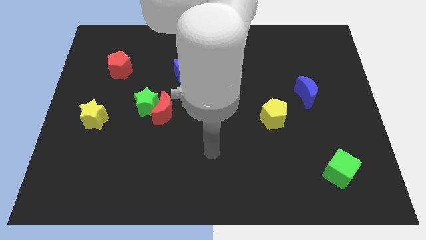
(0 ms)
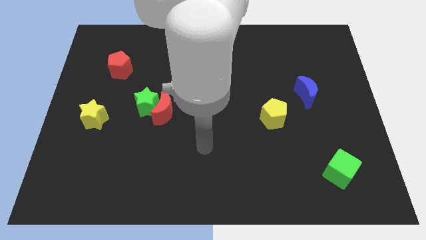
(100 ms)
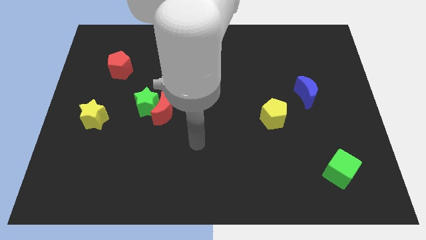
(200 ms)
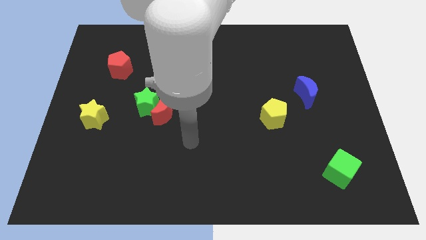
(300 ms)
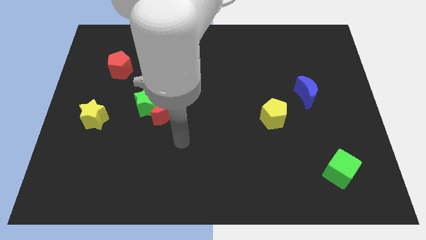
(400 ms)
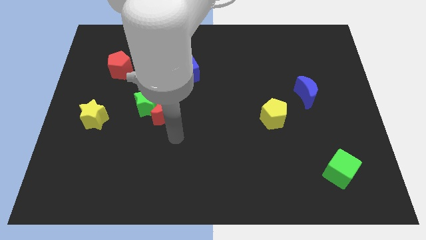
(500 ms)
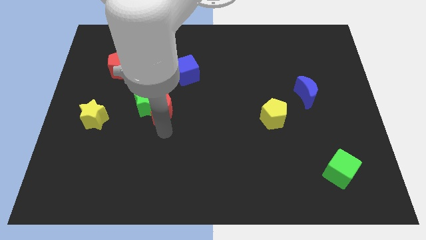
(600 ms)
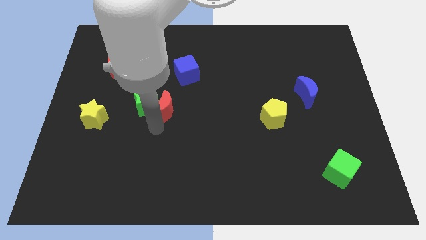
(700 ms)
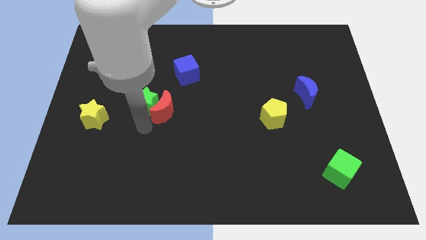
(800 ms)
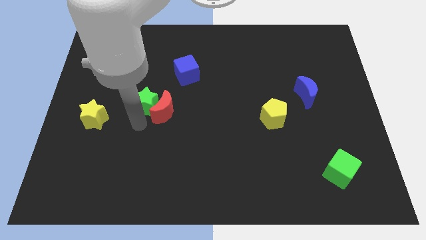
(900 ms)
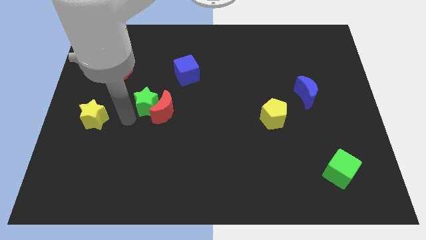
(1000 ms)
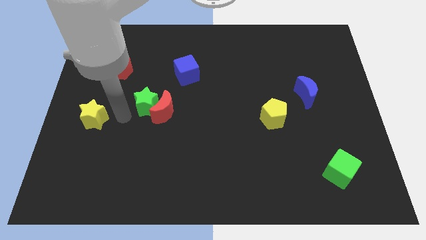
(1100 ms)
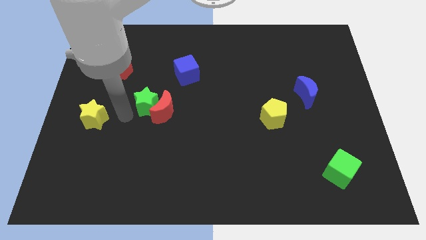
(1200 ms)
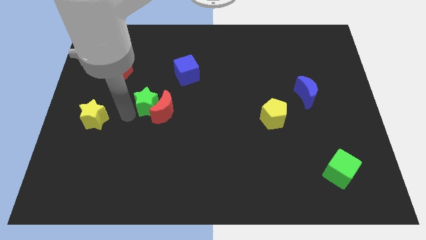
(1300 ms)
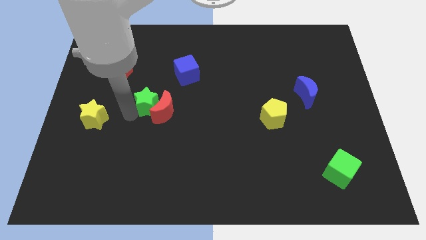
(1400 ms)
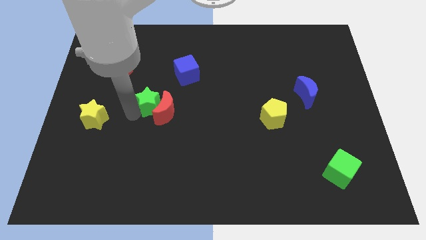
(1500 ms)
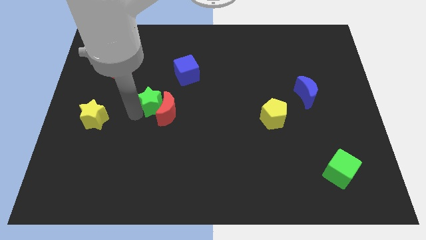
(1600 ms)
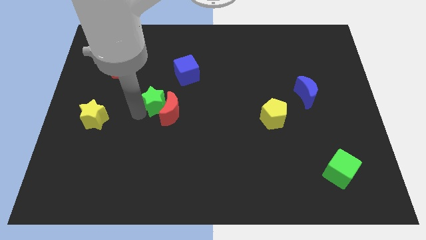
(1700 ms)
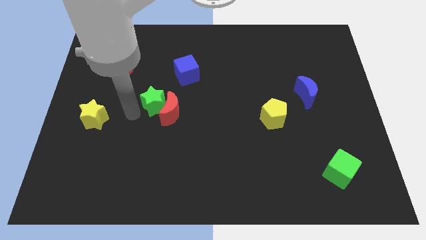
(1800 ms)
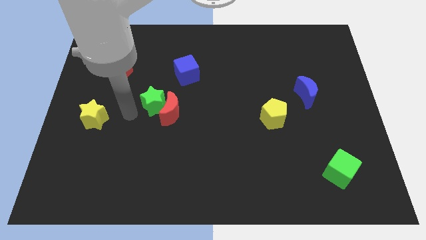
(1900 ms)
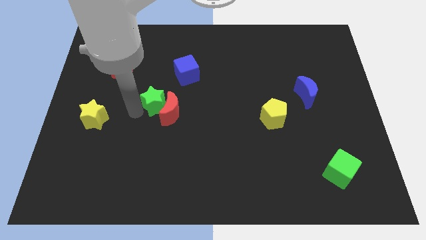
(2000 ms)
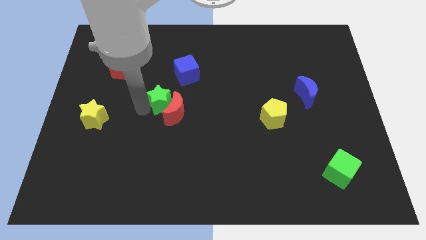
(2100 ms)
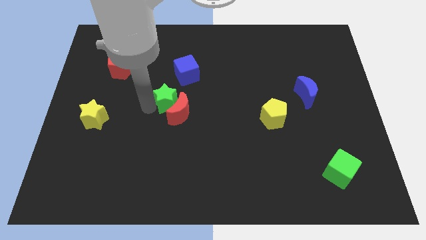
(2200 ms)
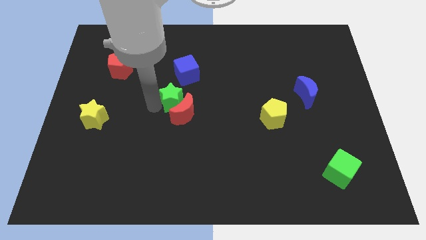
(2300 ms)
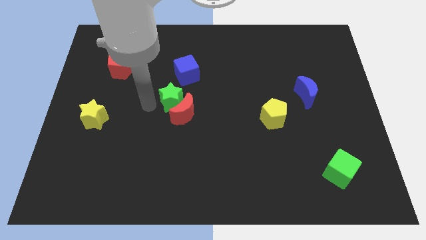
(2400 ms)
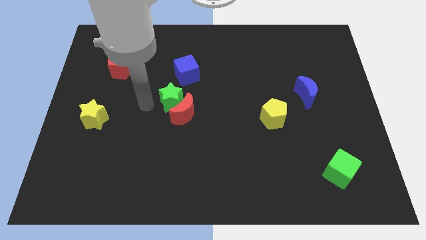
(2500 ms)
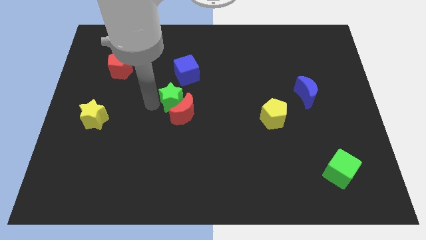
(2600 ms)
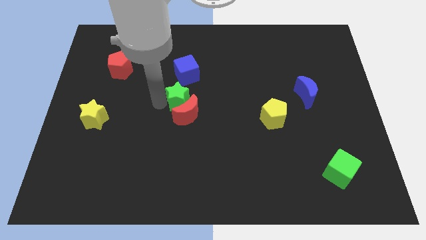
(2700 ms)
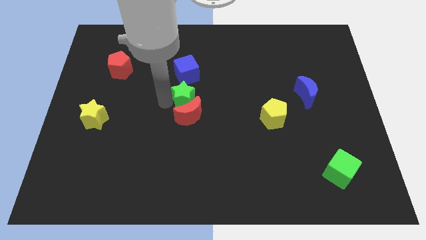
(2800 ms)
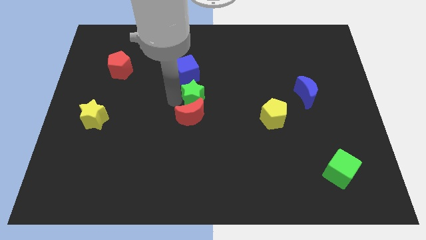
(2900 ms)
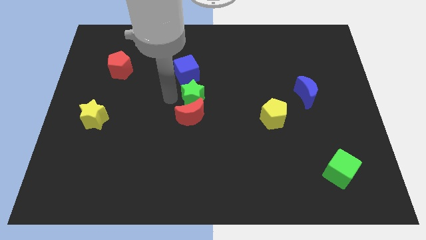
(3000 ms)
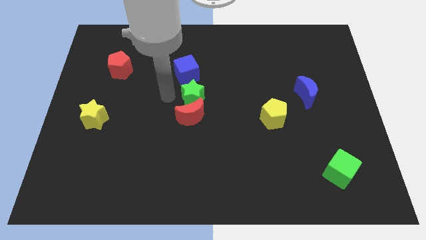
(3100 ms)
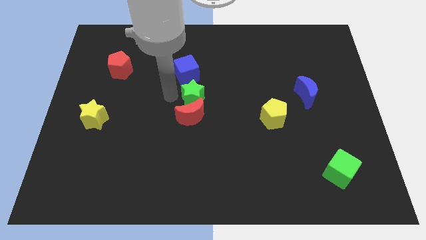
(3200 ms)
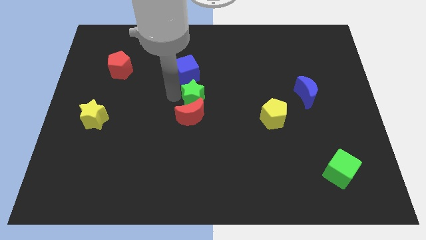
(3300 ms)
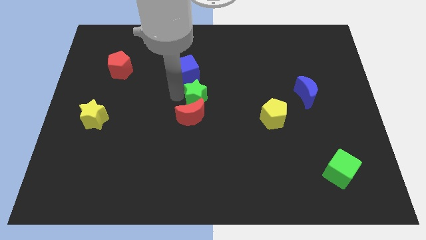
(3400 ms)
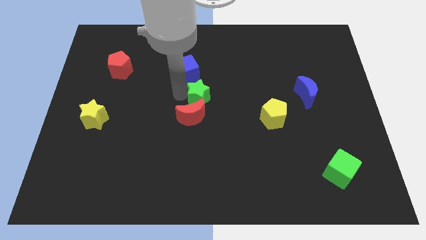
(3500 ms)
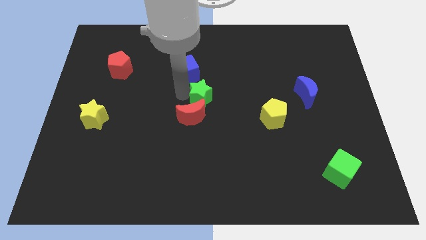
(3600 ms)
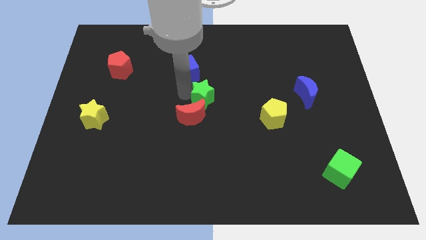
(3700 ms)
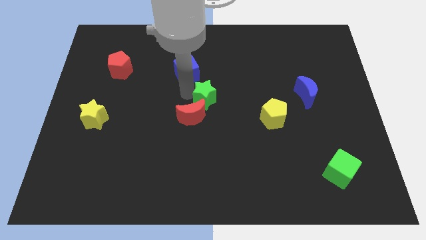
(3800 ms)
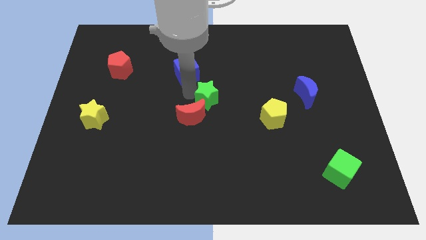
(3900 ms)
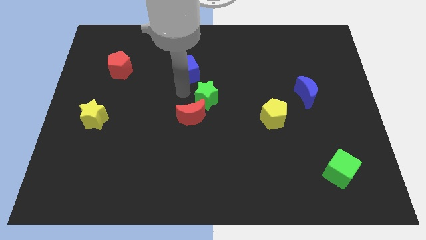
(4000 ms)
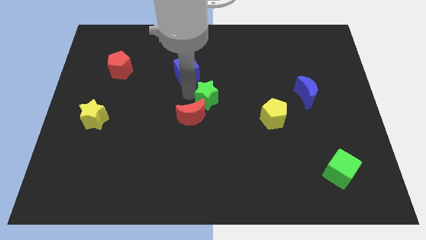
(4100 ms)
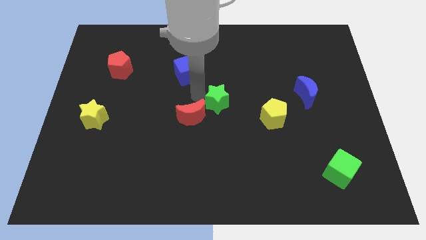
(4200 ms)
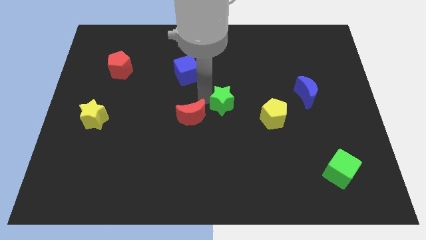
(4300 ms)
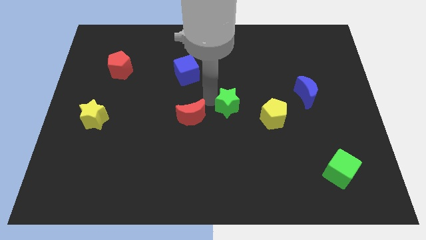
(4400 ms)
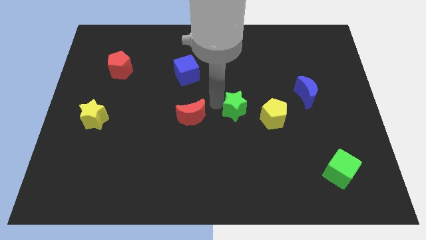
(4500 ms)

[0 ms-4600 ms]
slide the green star to the right

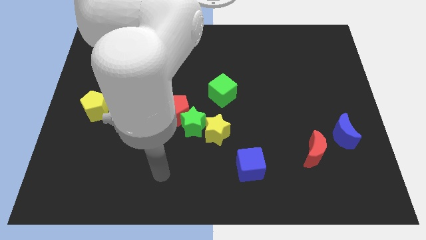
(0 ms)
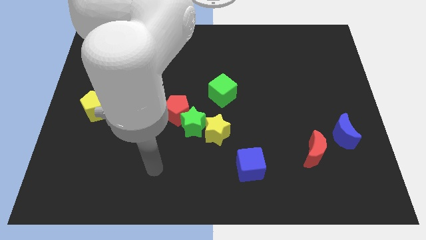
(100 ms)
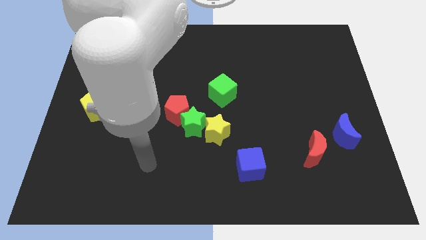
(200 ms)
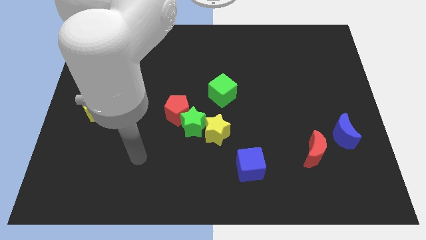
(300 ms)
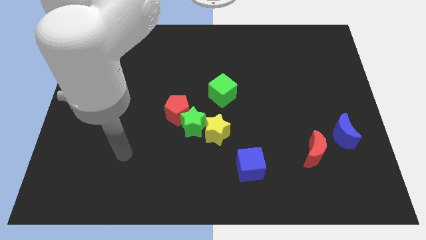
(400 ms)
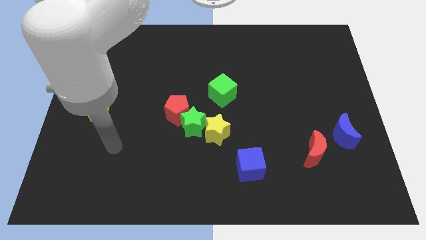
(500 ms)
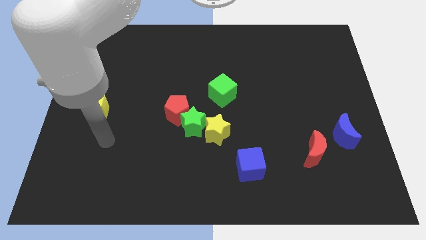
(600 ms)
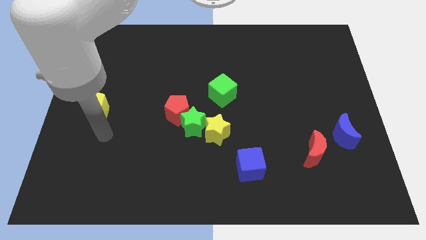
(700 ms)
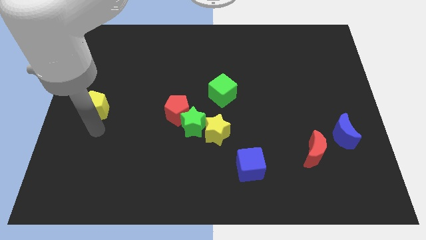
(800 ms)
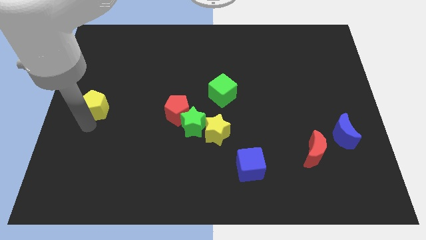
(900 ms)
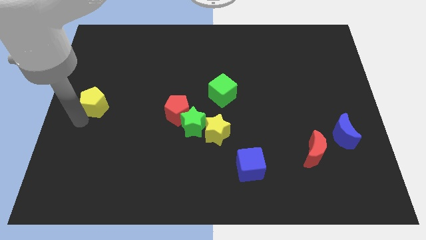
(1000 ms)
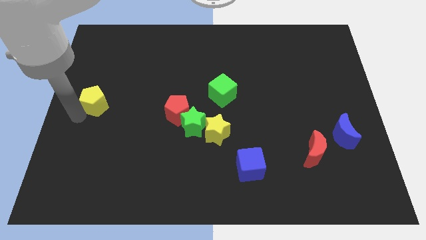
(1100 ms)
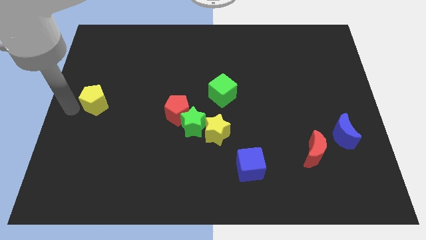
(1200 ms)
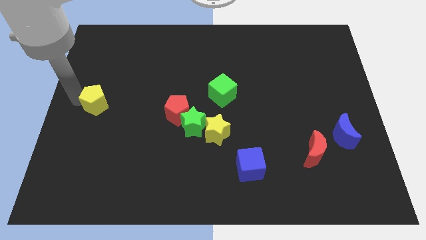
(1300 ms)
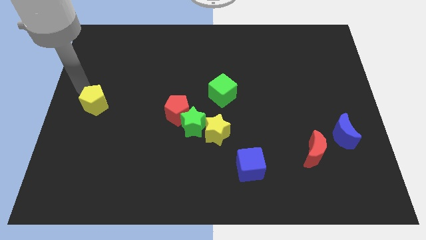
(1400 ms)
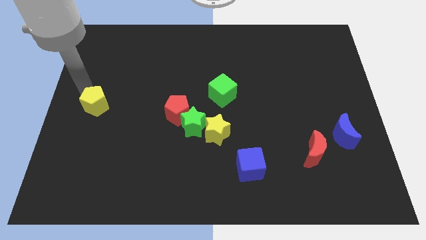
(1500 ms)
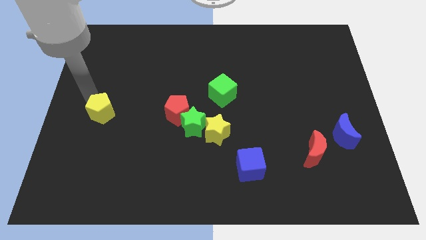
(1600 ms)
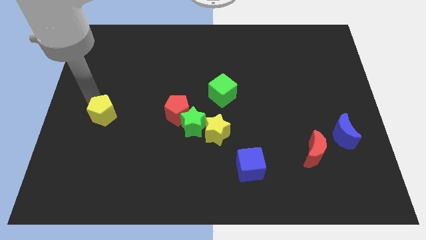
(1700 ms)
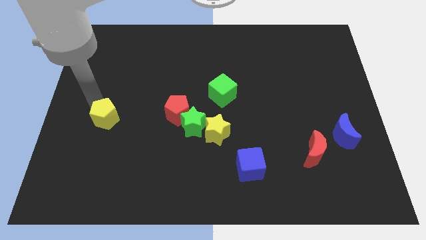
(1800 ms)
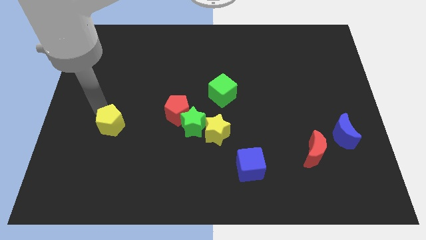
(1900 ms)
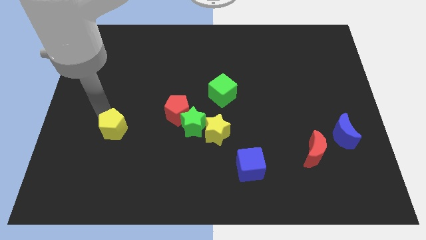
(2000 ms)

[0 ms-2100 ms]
push the yellow pentagon down and then right slightly

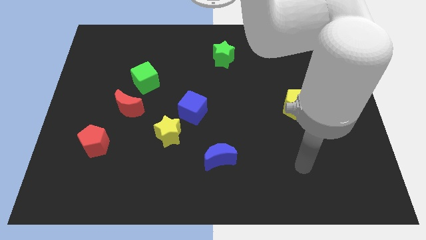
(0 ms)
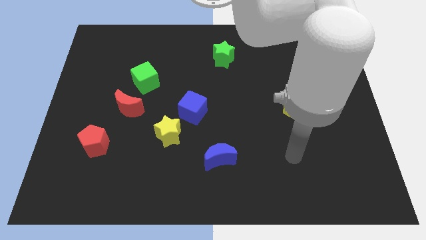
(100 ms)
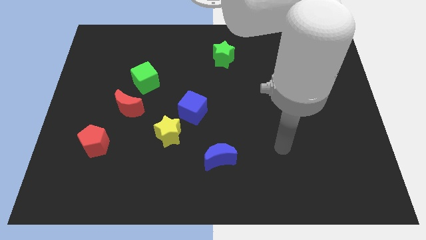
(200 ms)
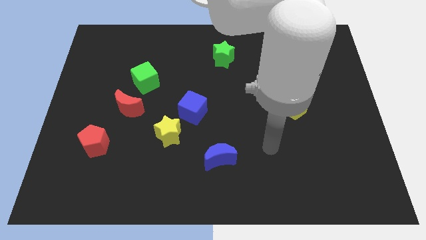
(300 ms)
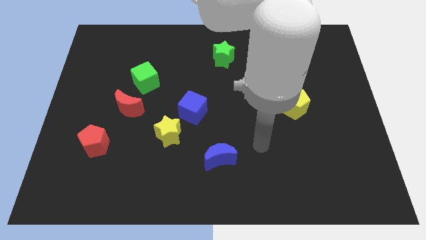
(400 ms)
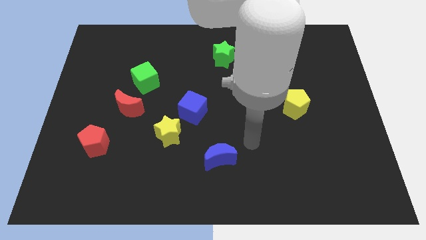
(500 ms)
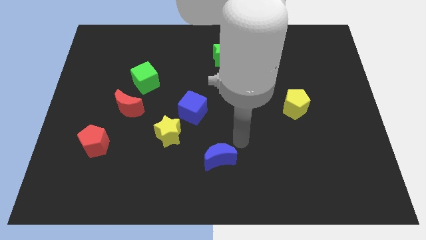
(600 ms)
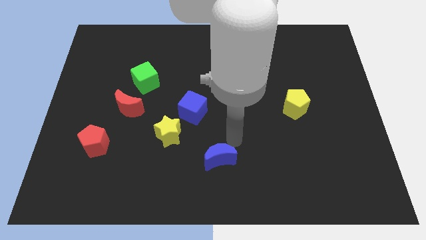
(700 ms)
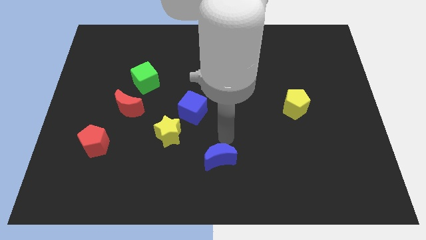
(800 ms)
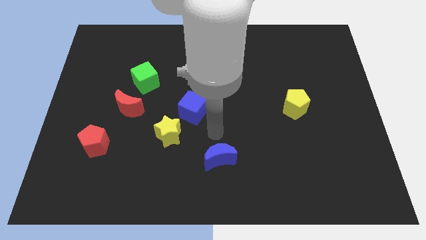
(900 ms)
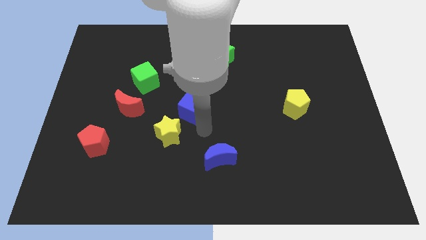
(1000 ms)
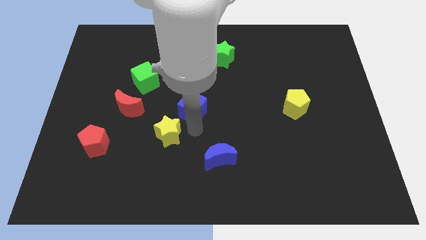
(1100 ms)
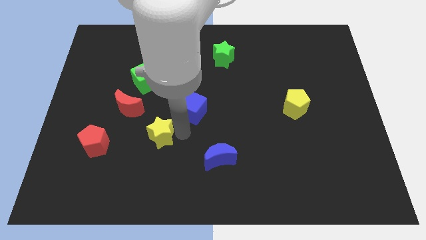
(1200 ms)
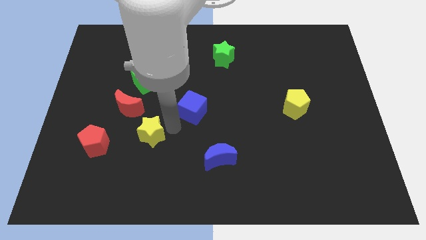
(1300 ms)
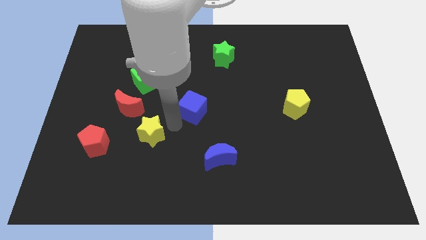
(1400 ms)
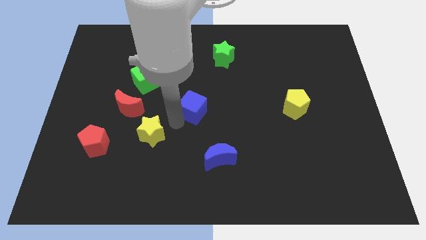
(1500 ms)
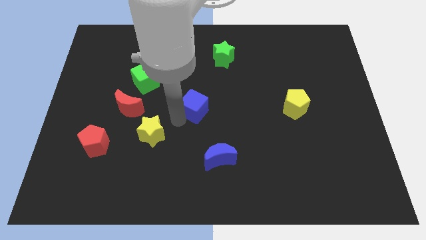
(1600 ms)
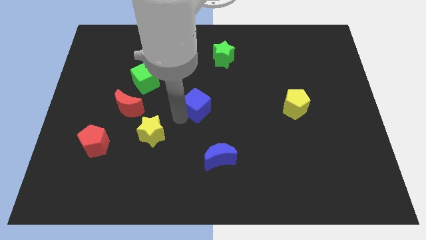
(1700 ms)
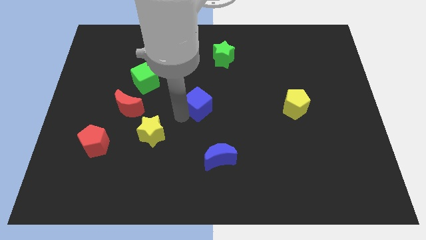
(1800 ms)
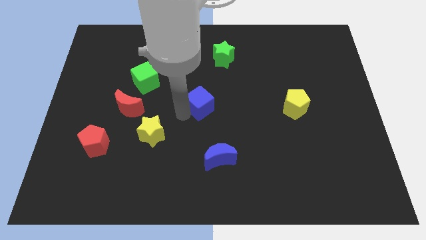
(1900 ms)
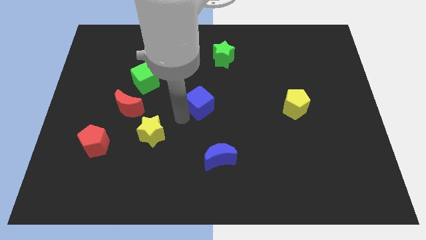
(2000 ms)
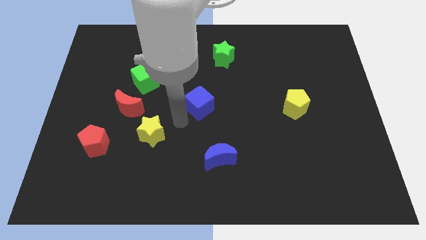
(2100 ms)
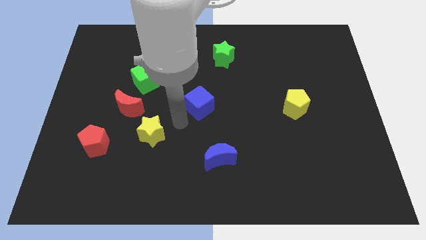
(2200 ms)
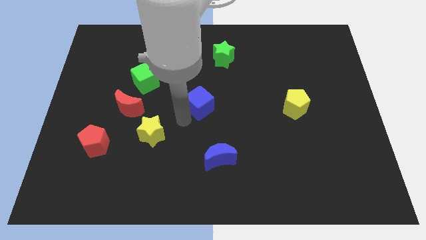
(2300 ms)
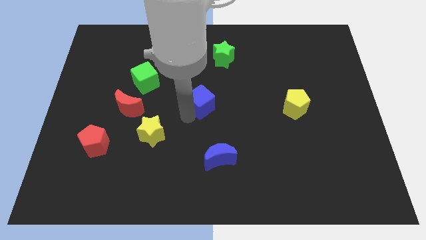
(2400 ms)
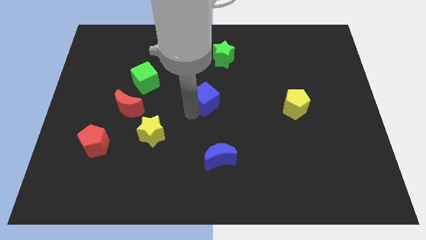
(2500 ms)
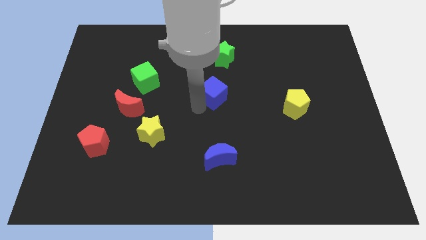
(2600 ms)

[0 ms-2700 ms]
slide the blue cube a little diagonally up and to the right
